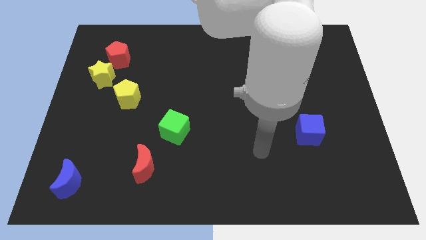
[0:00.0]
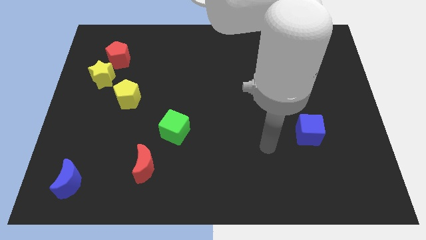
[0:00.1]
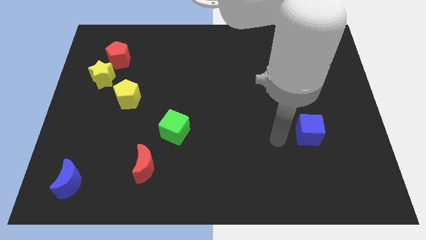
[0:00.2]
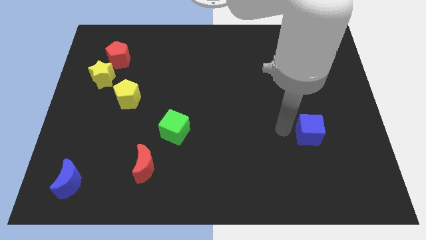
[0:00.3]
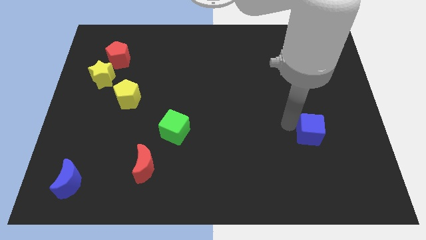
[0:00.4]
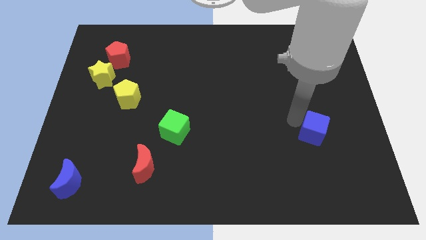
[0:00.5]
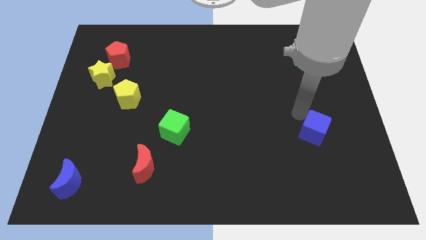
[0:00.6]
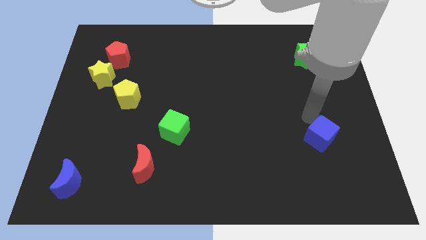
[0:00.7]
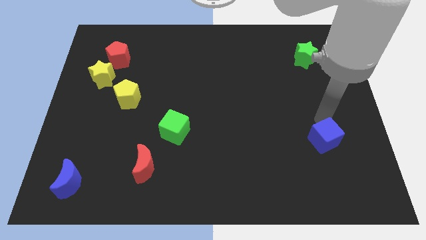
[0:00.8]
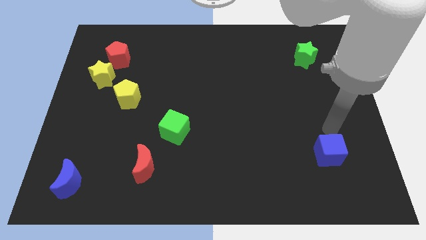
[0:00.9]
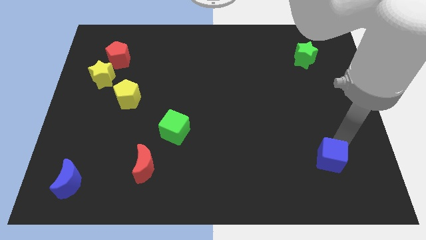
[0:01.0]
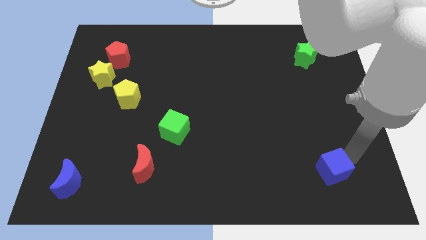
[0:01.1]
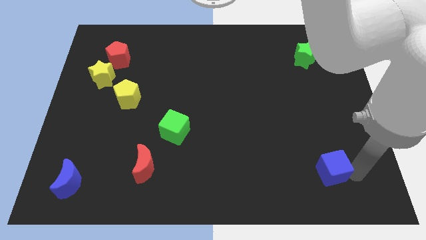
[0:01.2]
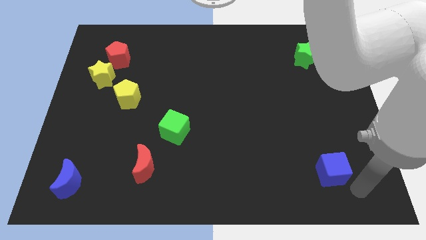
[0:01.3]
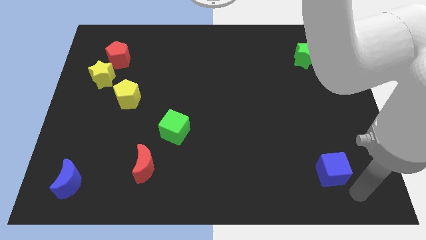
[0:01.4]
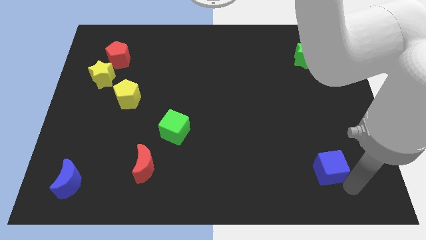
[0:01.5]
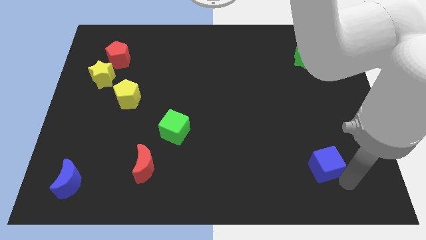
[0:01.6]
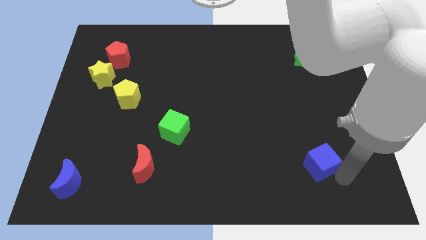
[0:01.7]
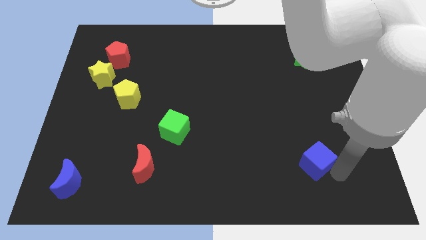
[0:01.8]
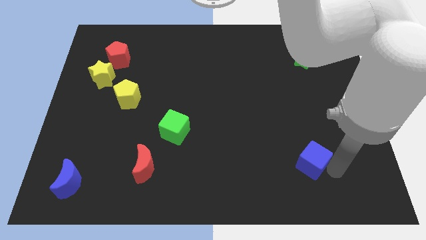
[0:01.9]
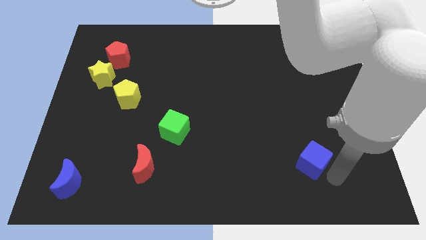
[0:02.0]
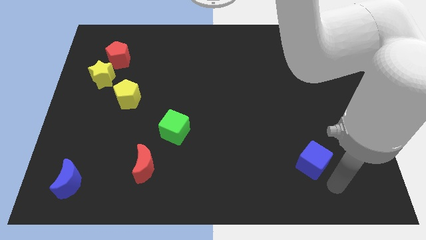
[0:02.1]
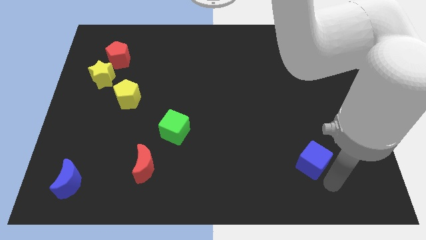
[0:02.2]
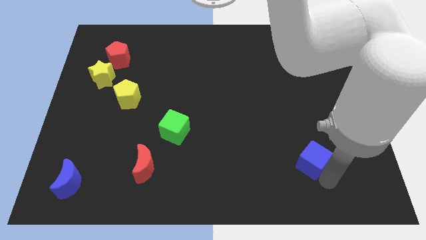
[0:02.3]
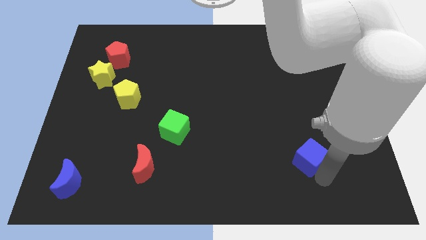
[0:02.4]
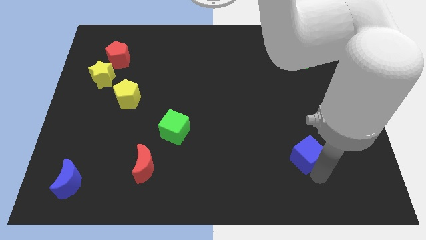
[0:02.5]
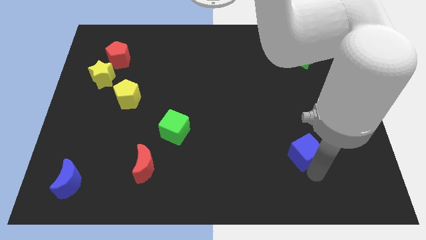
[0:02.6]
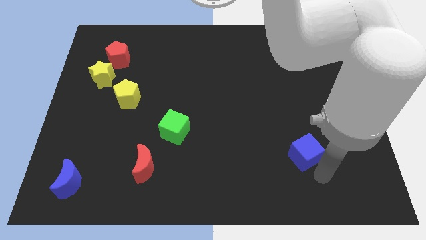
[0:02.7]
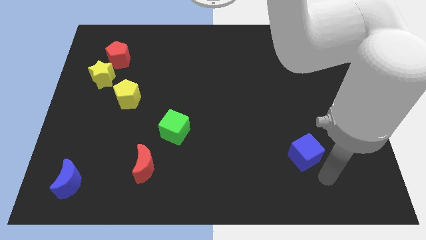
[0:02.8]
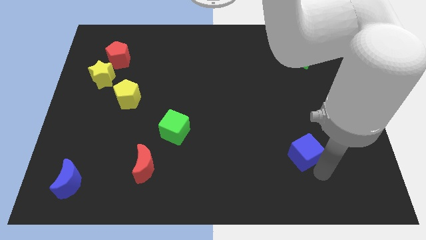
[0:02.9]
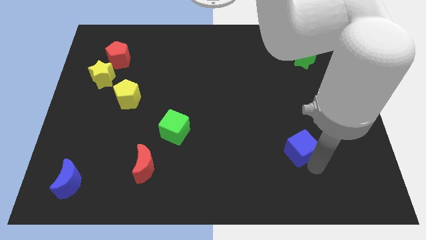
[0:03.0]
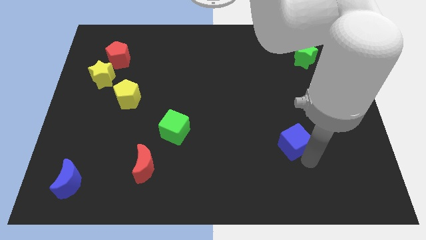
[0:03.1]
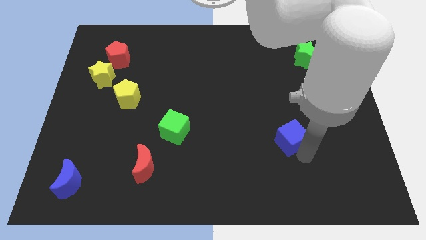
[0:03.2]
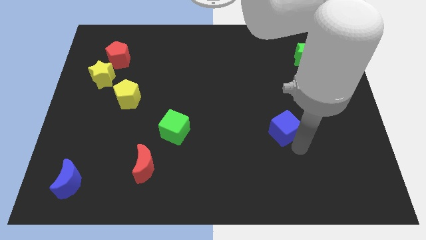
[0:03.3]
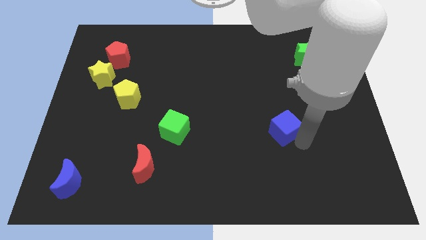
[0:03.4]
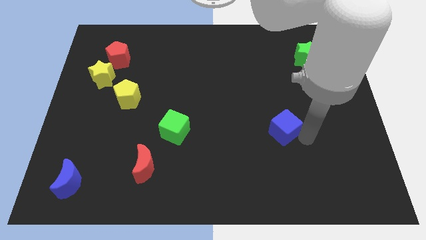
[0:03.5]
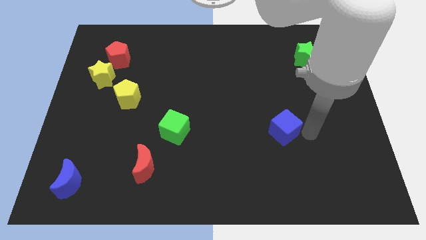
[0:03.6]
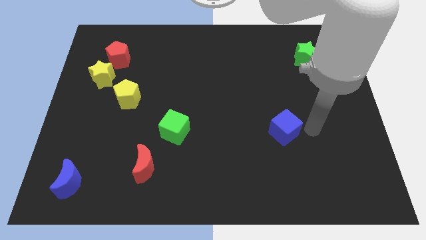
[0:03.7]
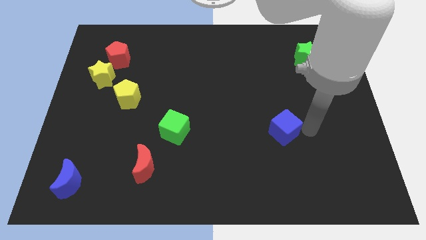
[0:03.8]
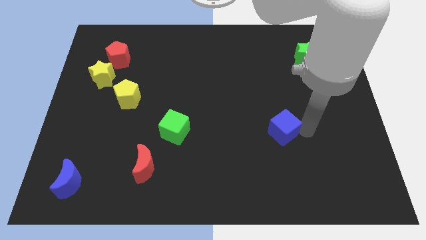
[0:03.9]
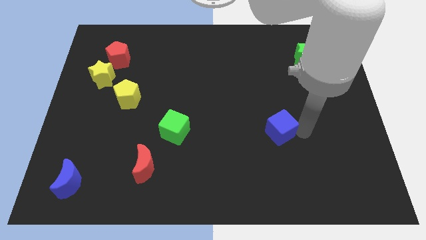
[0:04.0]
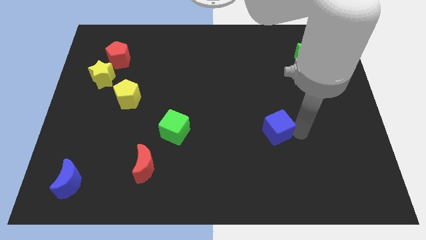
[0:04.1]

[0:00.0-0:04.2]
slightly push the blue cube to the left

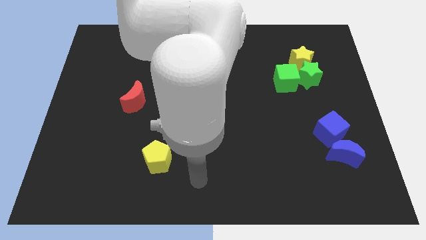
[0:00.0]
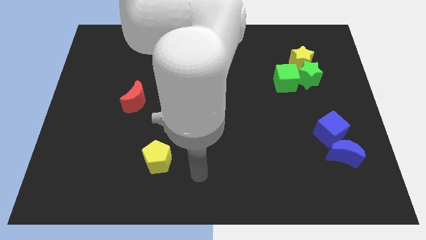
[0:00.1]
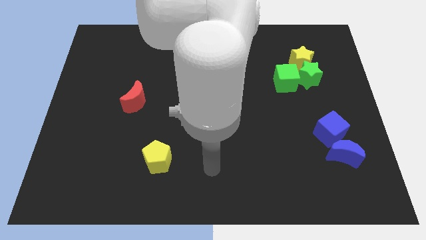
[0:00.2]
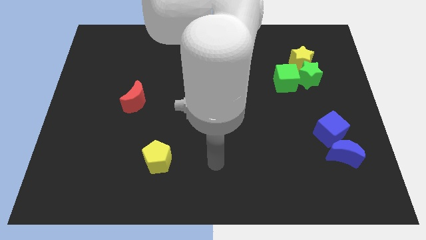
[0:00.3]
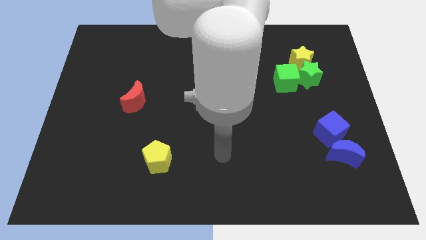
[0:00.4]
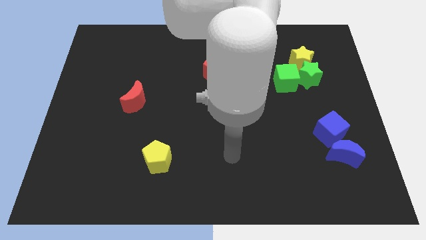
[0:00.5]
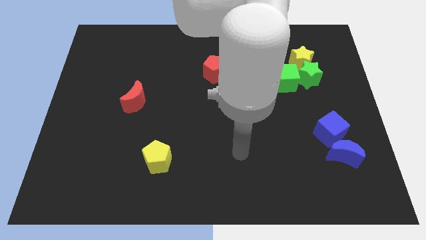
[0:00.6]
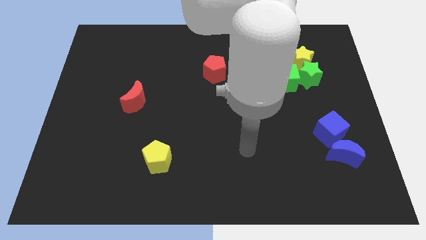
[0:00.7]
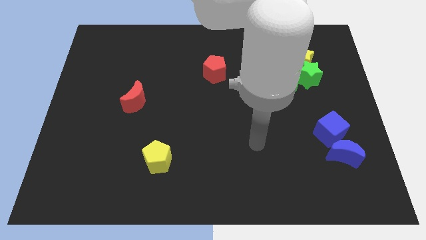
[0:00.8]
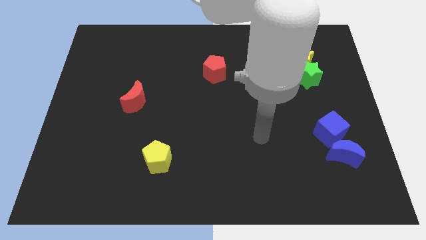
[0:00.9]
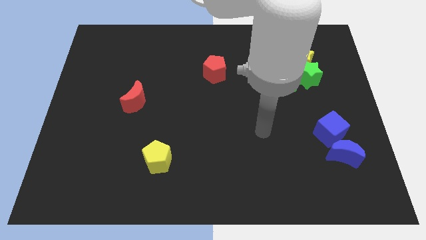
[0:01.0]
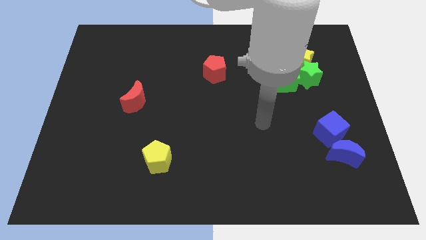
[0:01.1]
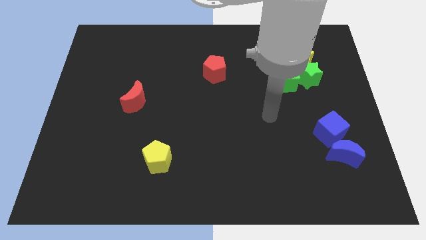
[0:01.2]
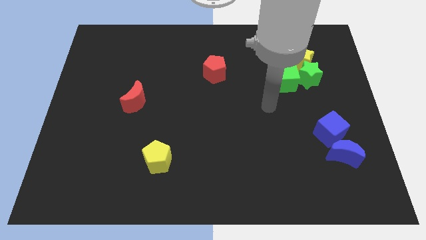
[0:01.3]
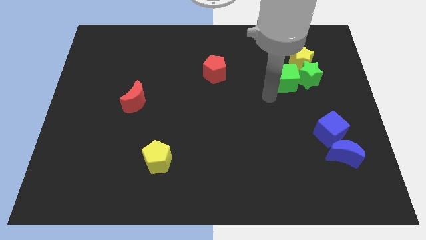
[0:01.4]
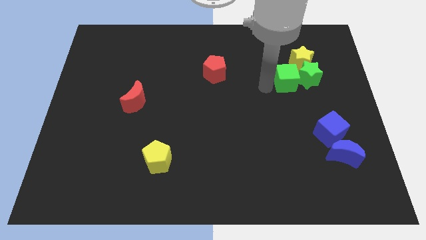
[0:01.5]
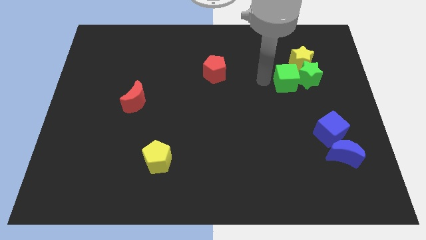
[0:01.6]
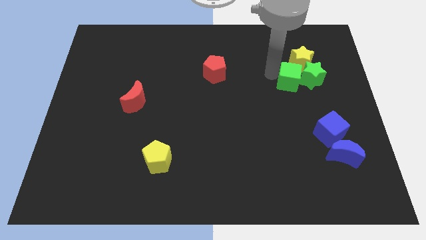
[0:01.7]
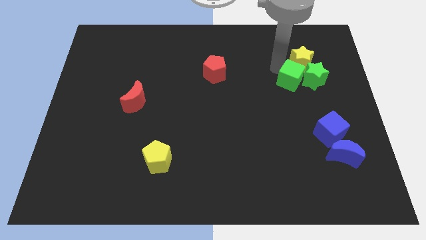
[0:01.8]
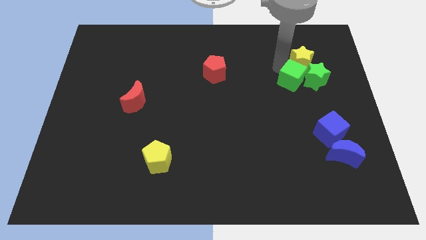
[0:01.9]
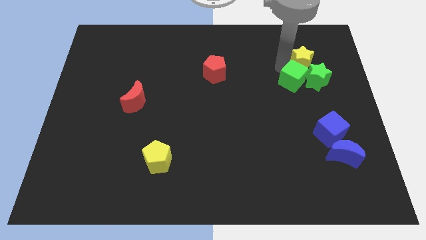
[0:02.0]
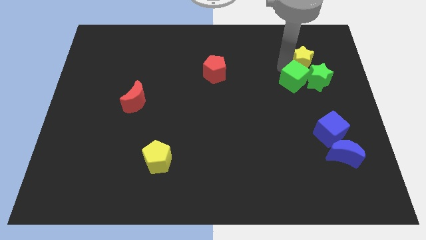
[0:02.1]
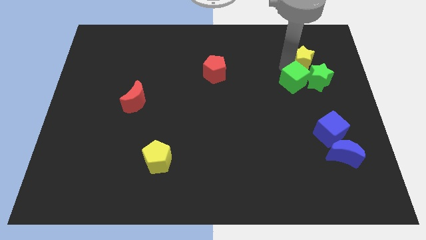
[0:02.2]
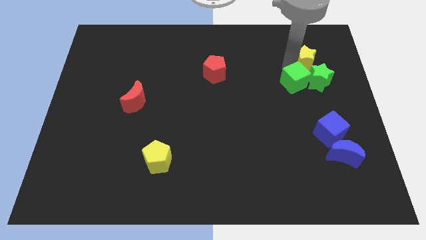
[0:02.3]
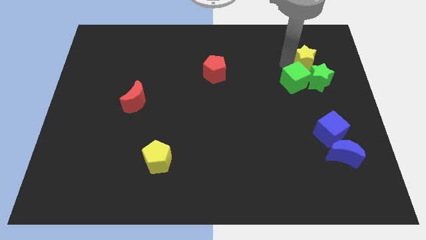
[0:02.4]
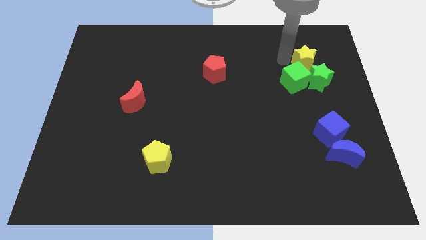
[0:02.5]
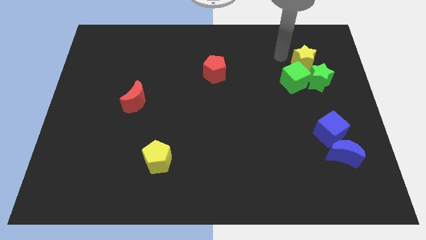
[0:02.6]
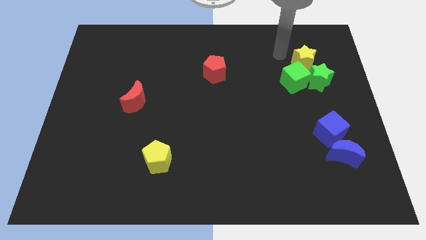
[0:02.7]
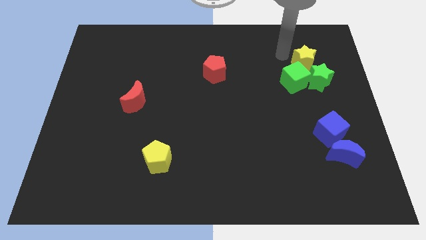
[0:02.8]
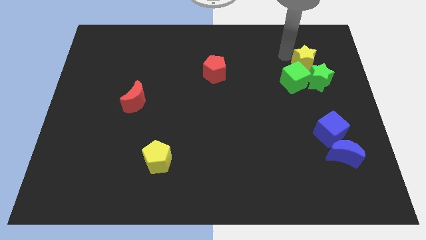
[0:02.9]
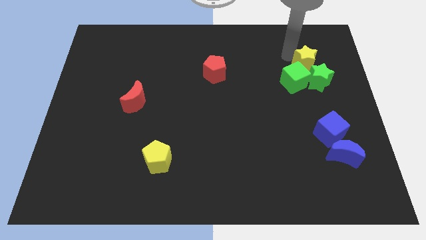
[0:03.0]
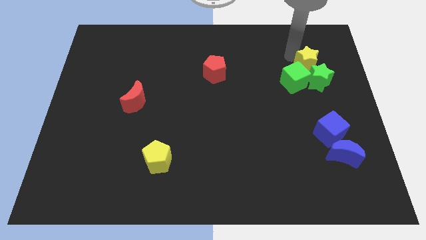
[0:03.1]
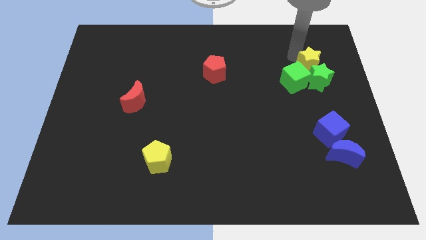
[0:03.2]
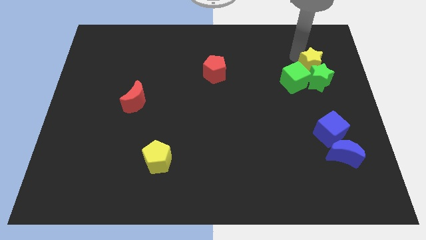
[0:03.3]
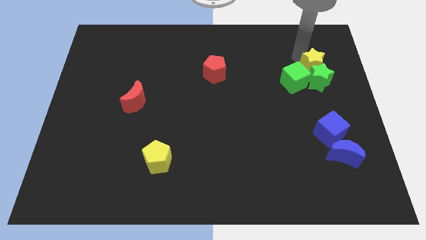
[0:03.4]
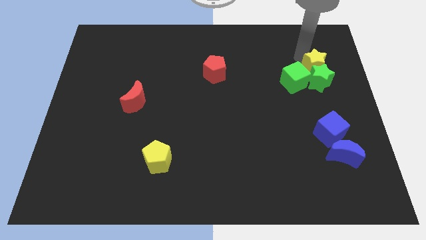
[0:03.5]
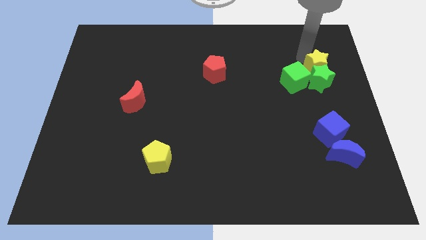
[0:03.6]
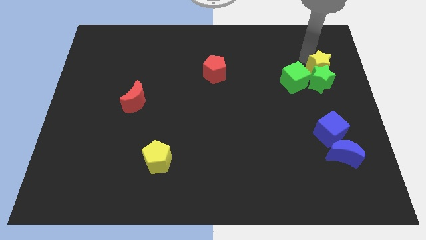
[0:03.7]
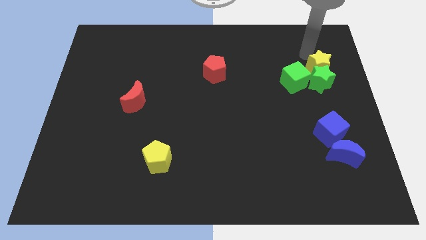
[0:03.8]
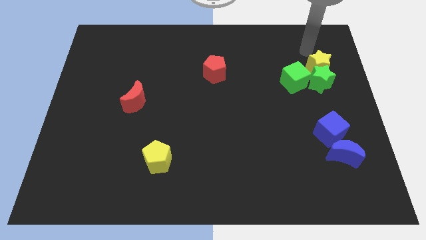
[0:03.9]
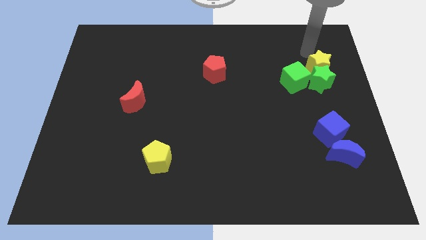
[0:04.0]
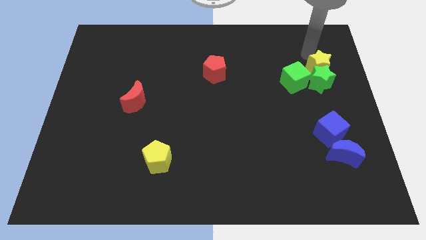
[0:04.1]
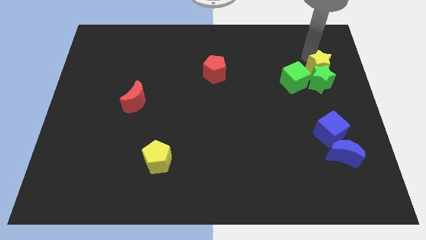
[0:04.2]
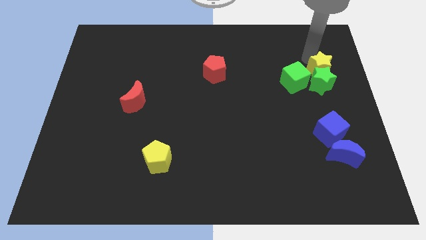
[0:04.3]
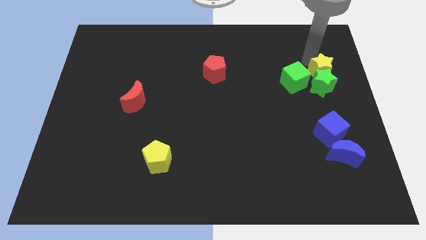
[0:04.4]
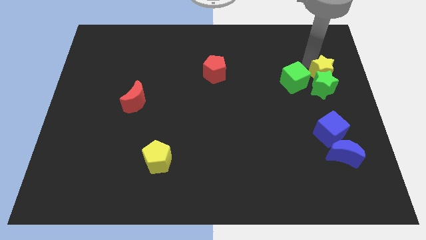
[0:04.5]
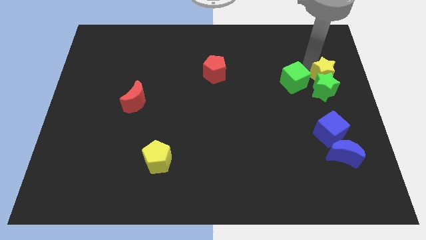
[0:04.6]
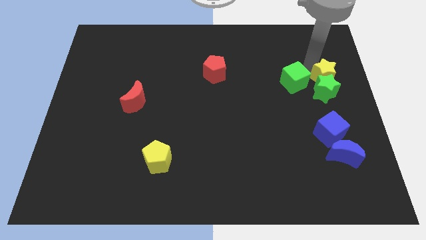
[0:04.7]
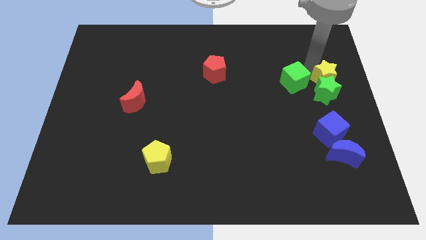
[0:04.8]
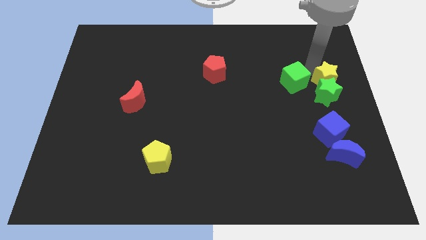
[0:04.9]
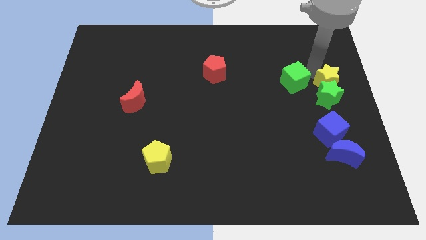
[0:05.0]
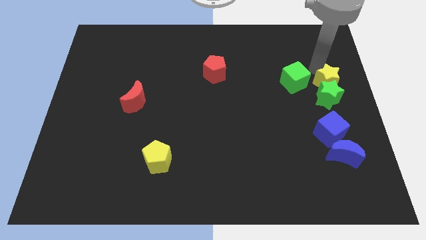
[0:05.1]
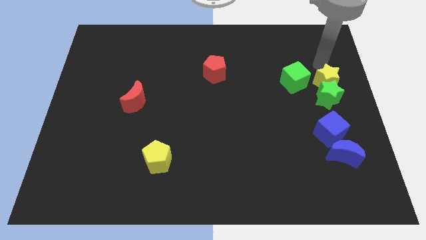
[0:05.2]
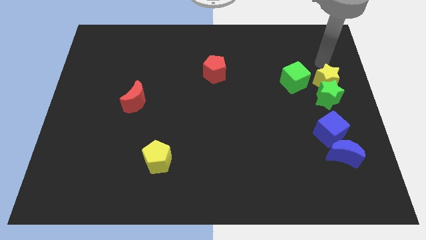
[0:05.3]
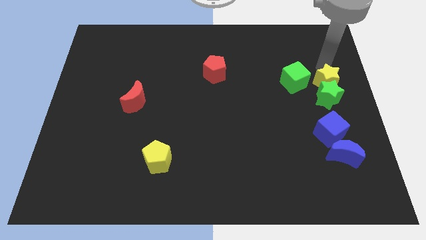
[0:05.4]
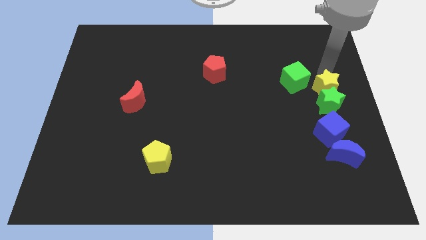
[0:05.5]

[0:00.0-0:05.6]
slide the yellow star down somewhat
